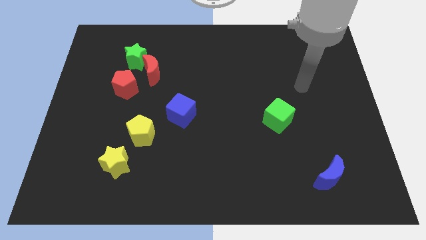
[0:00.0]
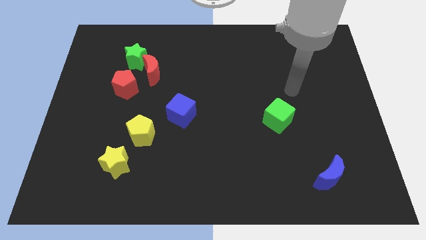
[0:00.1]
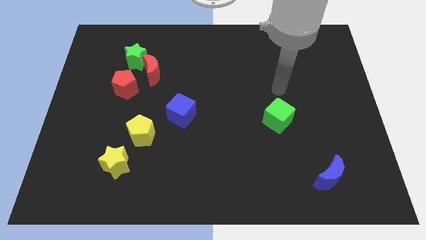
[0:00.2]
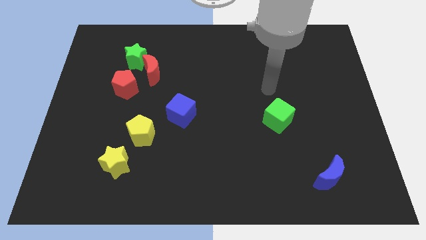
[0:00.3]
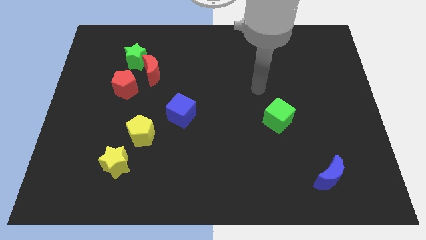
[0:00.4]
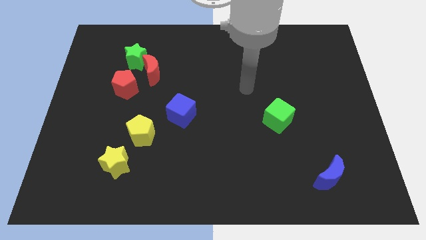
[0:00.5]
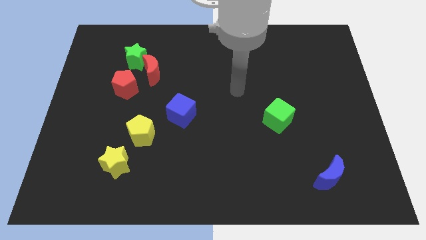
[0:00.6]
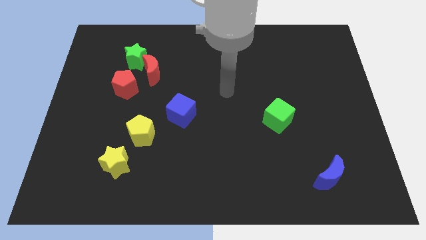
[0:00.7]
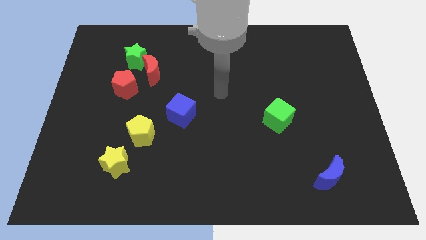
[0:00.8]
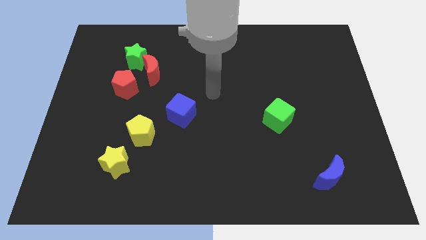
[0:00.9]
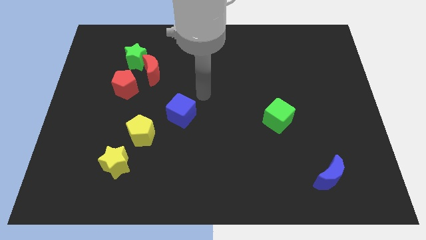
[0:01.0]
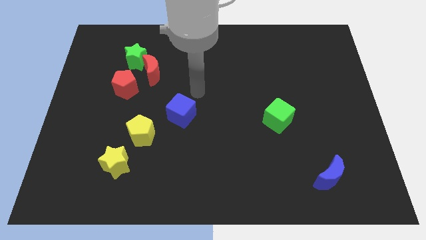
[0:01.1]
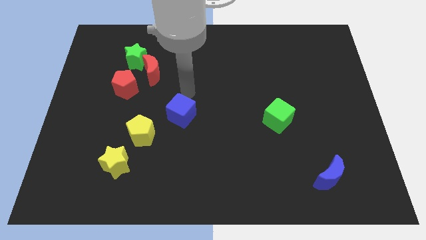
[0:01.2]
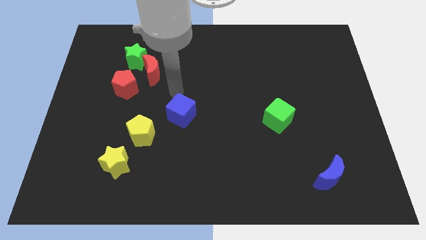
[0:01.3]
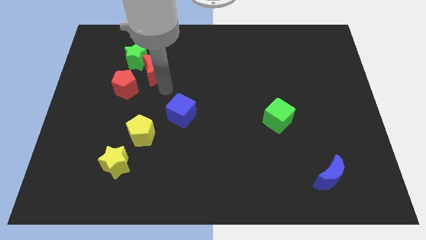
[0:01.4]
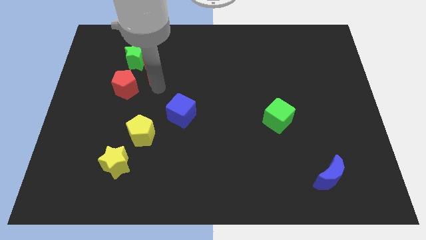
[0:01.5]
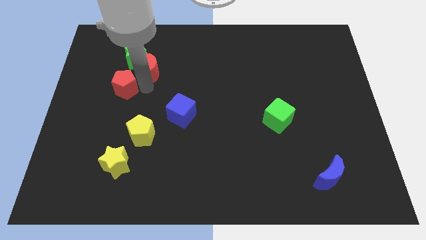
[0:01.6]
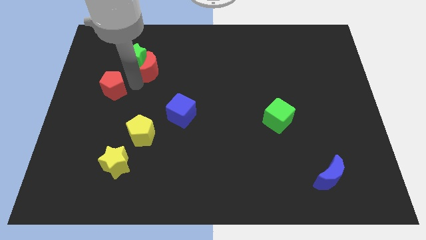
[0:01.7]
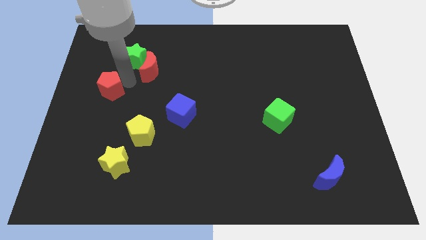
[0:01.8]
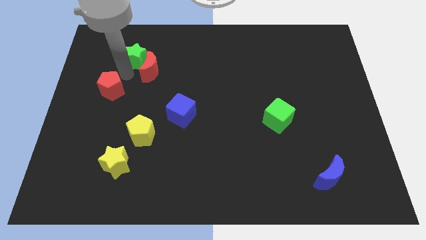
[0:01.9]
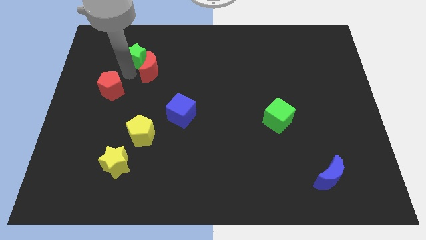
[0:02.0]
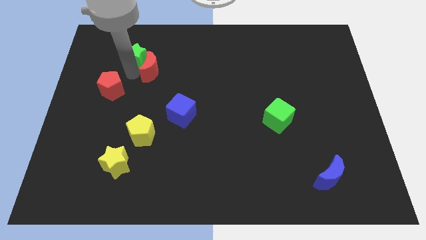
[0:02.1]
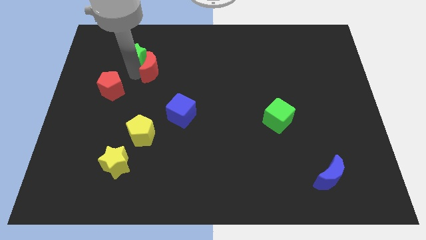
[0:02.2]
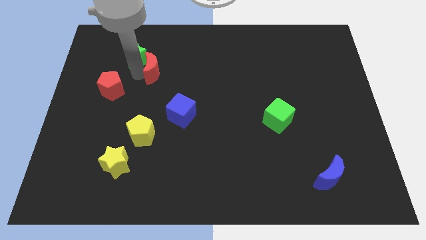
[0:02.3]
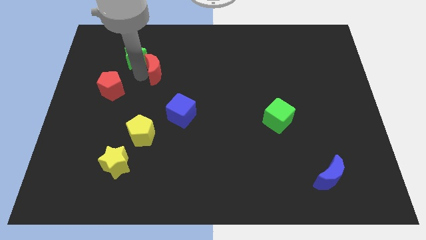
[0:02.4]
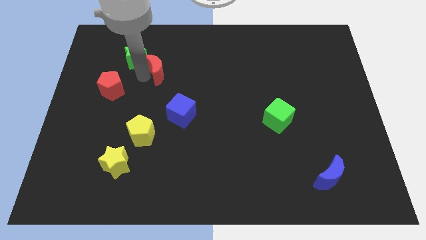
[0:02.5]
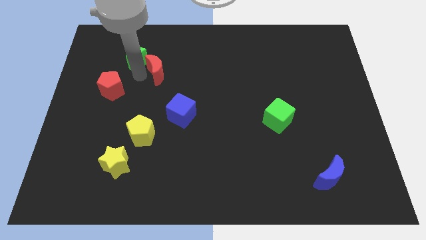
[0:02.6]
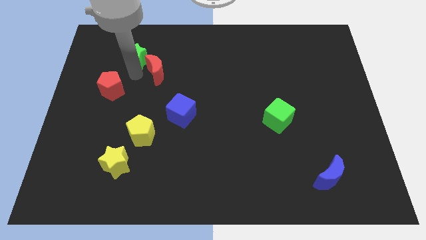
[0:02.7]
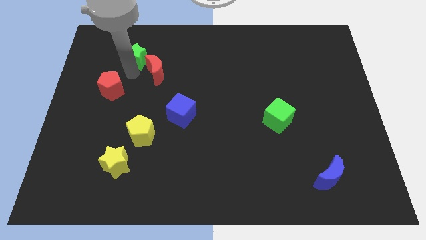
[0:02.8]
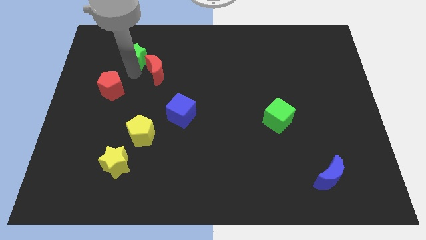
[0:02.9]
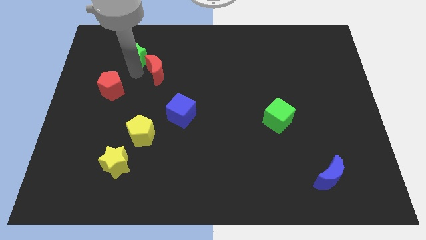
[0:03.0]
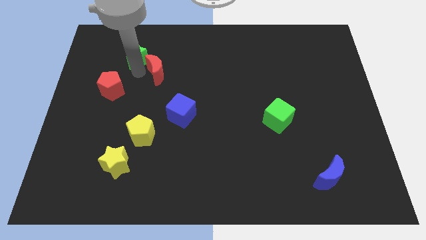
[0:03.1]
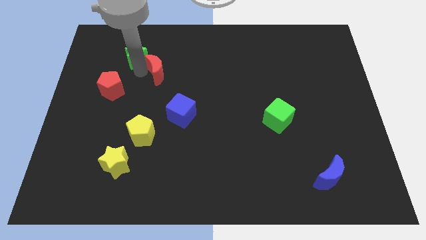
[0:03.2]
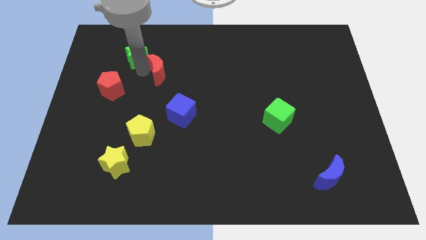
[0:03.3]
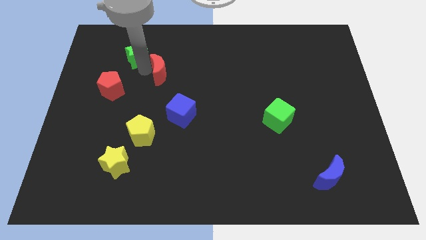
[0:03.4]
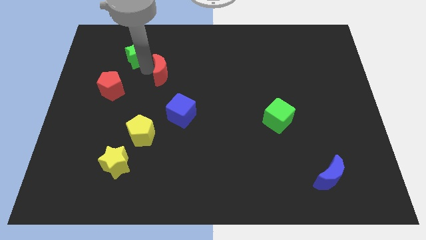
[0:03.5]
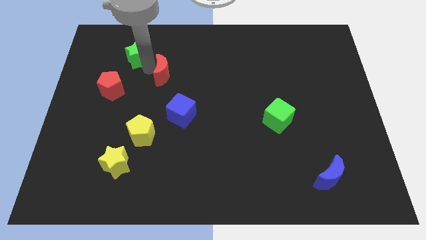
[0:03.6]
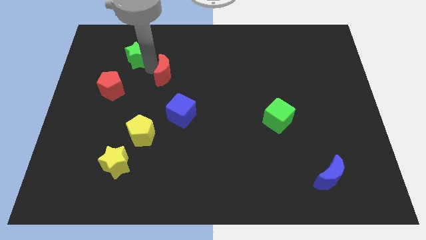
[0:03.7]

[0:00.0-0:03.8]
separate the red moon from the green star and red pentagon

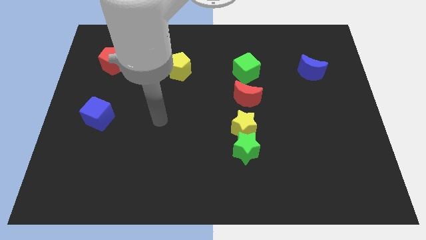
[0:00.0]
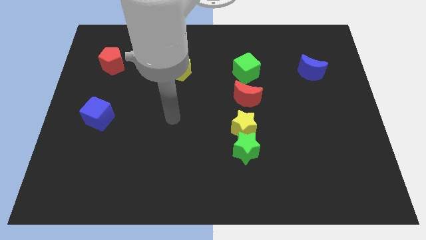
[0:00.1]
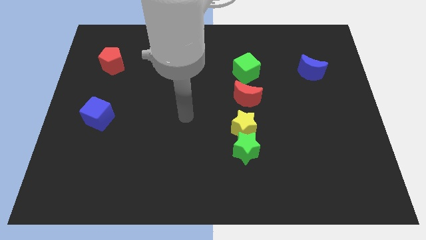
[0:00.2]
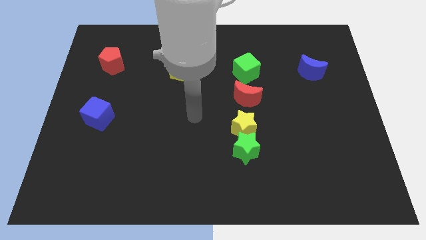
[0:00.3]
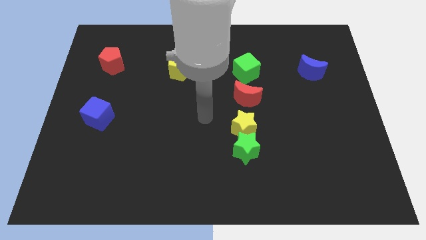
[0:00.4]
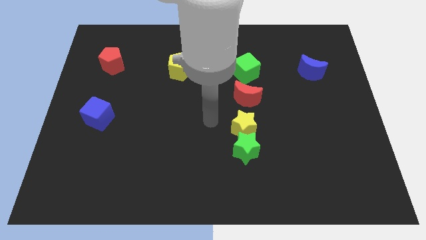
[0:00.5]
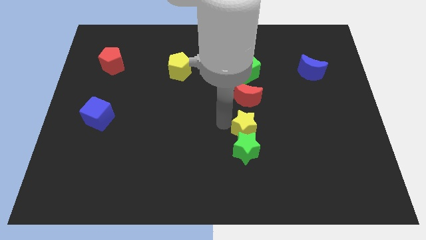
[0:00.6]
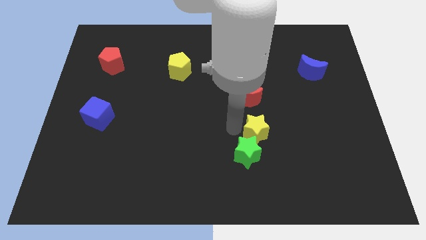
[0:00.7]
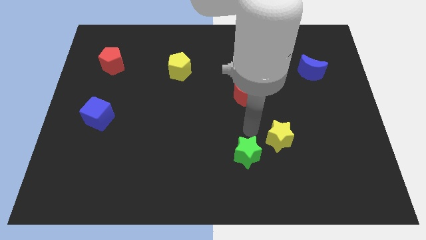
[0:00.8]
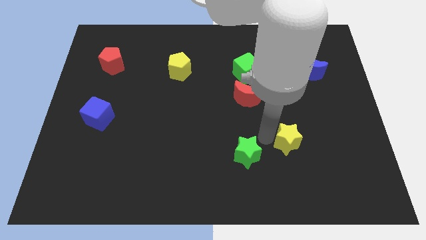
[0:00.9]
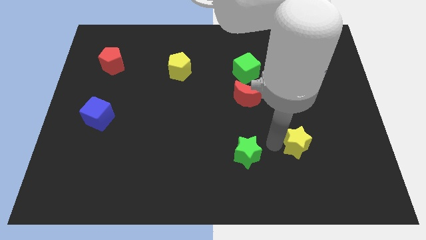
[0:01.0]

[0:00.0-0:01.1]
separate the green star from the yellow star

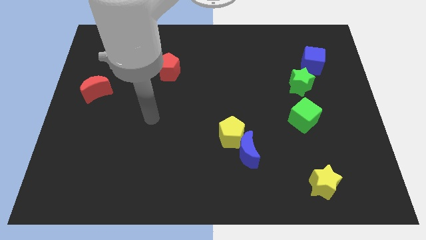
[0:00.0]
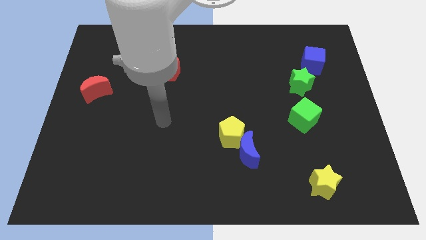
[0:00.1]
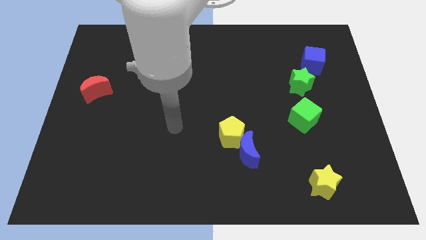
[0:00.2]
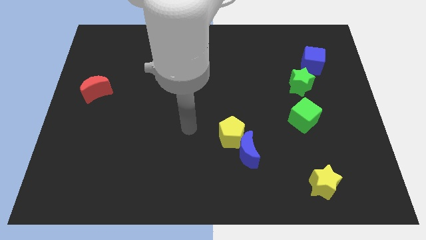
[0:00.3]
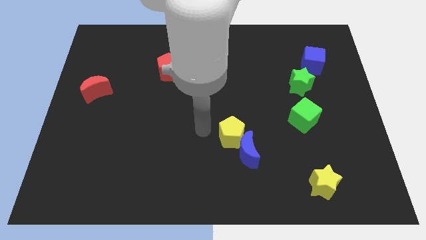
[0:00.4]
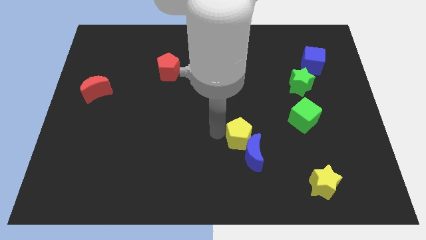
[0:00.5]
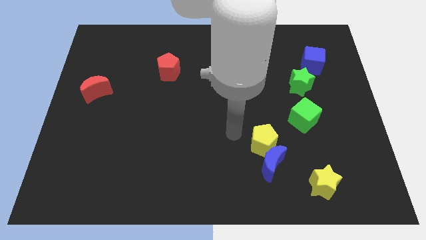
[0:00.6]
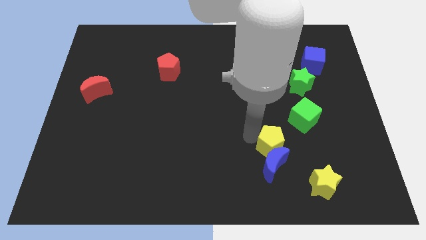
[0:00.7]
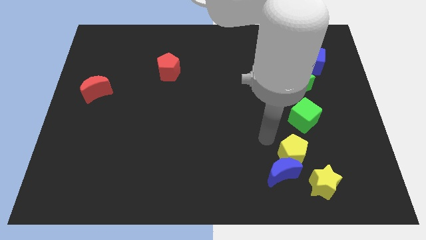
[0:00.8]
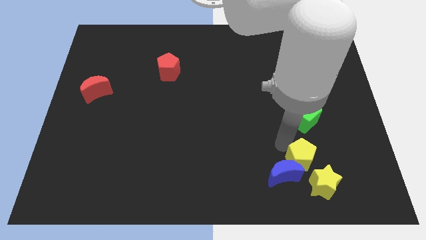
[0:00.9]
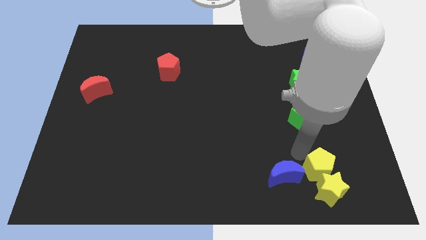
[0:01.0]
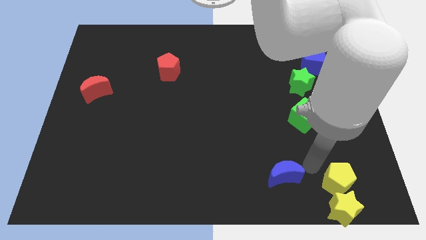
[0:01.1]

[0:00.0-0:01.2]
pull the blue moon apart from the yellow pentagon

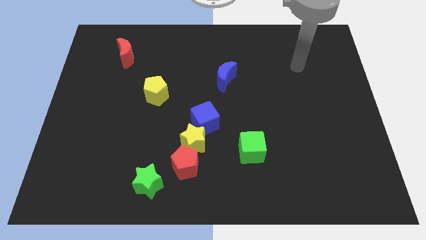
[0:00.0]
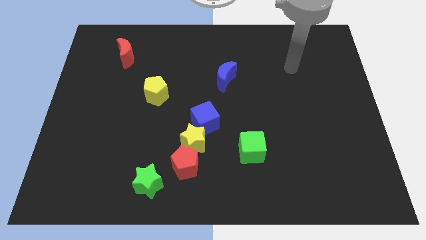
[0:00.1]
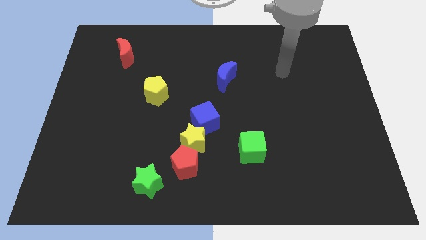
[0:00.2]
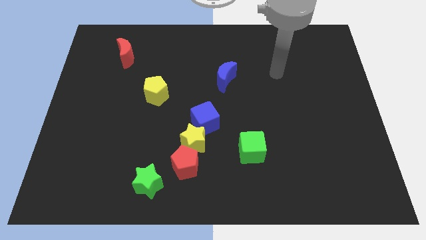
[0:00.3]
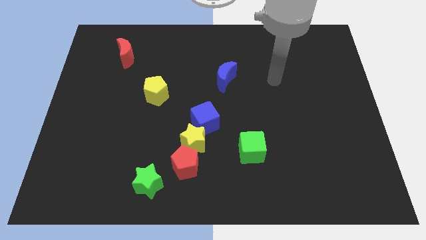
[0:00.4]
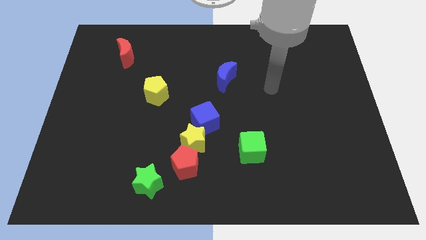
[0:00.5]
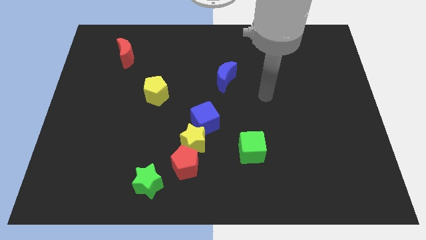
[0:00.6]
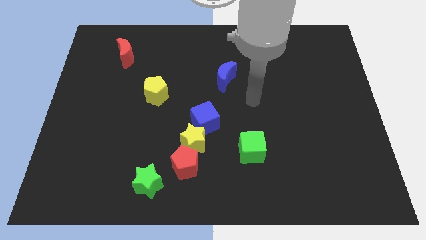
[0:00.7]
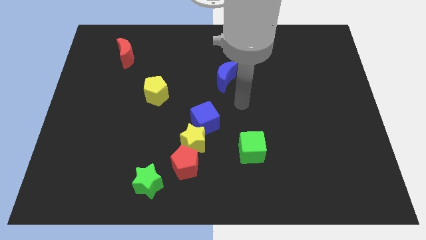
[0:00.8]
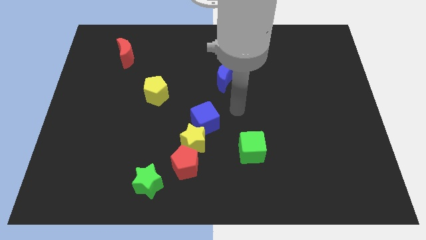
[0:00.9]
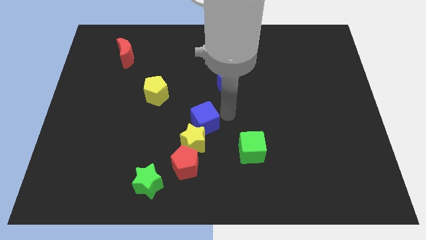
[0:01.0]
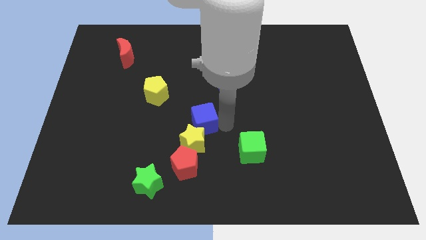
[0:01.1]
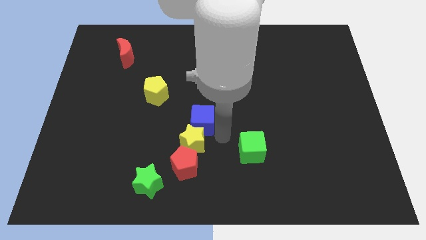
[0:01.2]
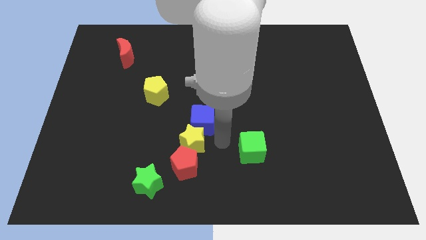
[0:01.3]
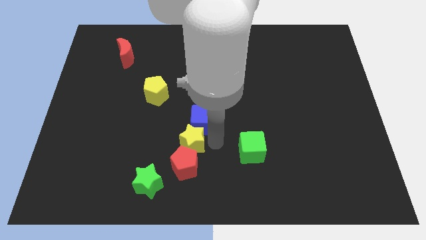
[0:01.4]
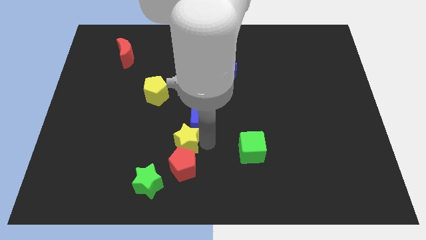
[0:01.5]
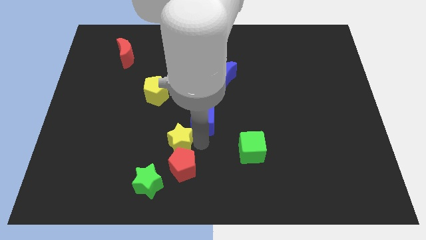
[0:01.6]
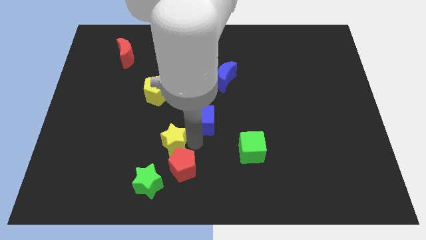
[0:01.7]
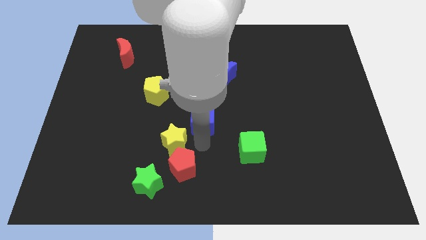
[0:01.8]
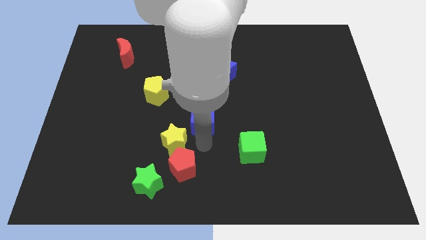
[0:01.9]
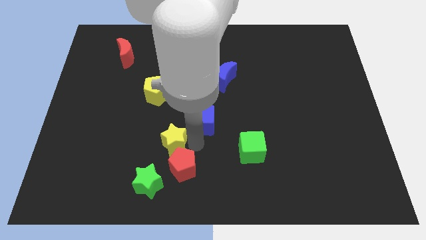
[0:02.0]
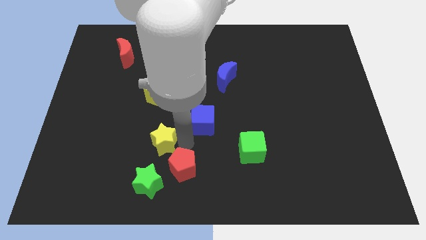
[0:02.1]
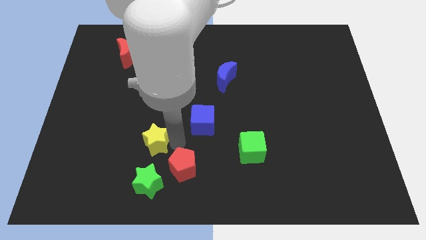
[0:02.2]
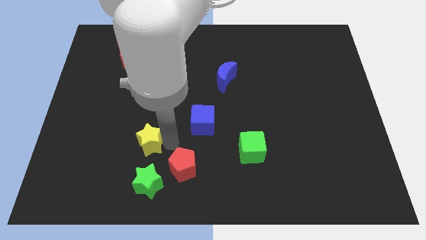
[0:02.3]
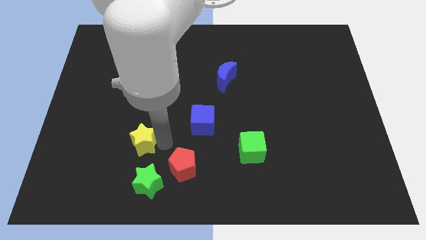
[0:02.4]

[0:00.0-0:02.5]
pull the yellow star apart from the red pentagon and blue cube

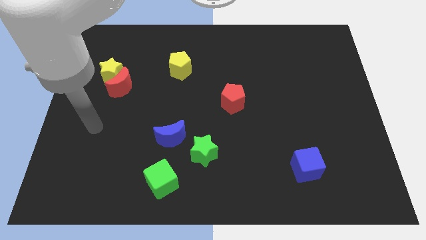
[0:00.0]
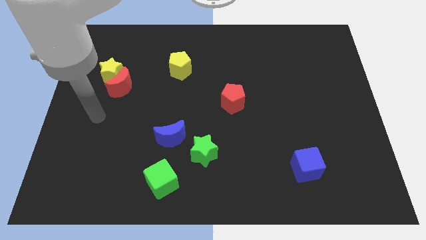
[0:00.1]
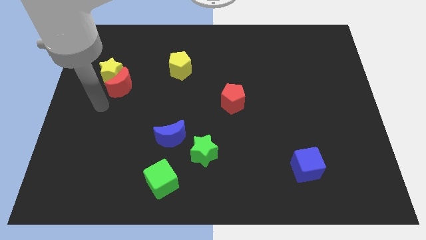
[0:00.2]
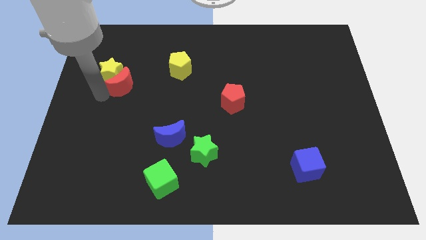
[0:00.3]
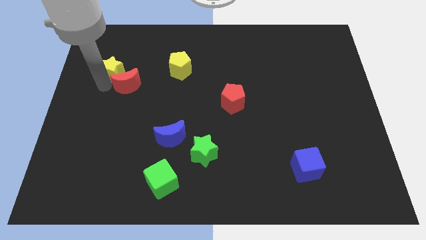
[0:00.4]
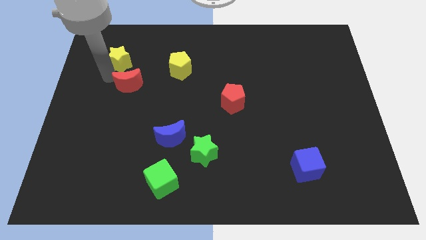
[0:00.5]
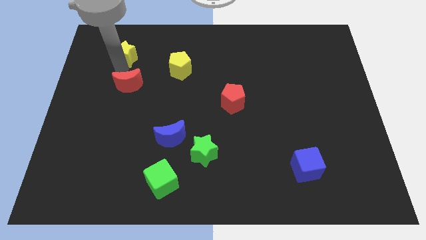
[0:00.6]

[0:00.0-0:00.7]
move the red moon away from the yellow star
